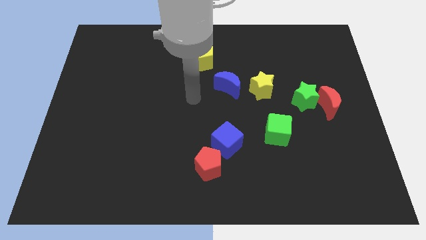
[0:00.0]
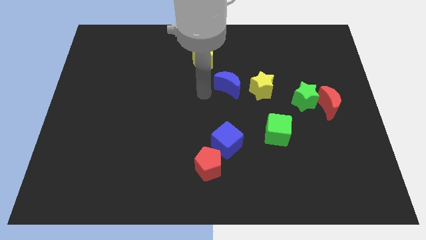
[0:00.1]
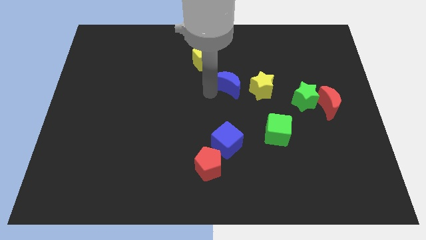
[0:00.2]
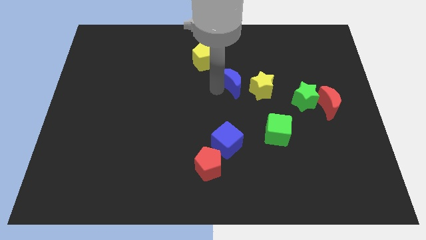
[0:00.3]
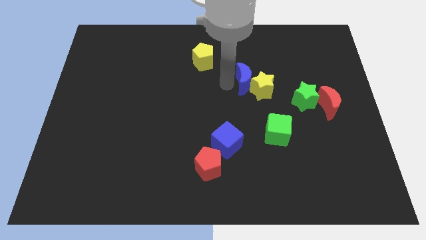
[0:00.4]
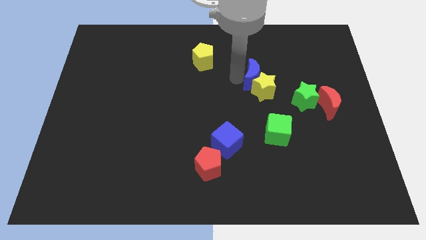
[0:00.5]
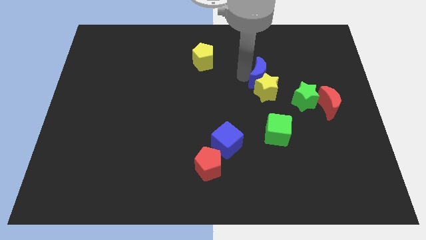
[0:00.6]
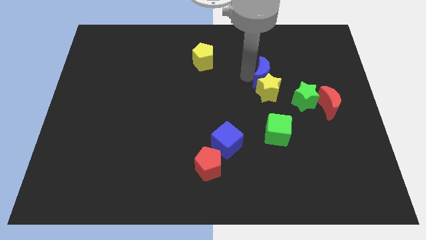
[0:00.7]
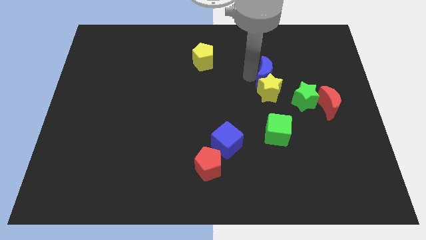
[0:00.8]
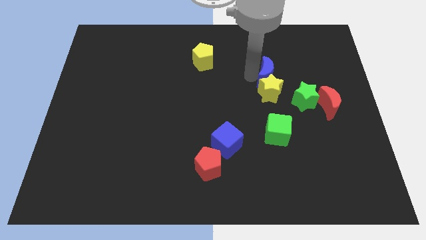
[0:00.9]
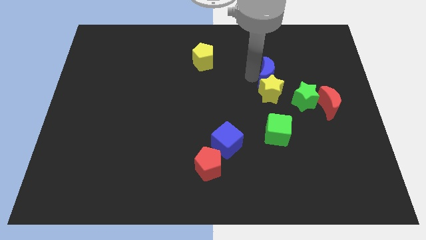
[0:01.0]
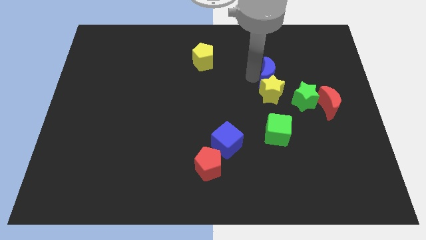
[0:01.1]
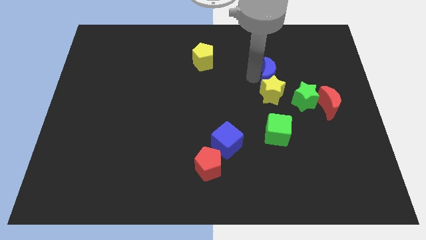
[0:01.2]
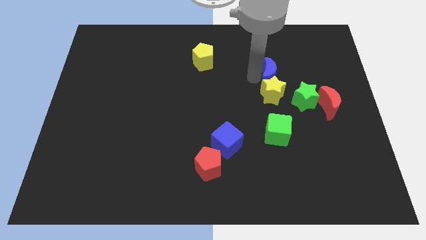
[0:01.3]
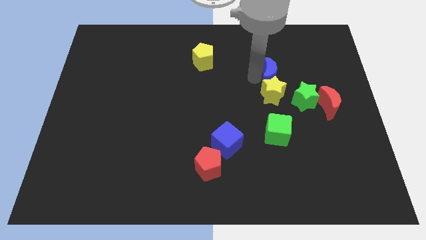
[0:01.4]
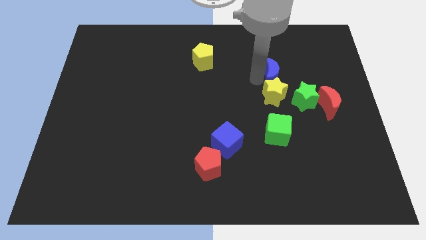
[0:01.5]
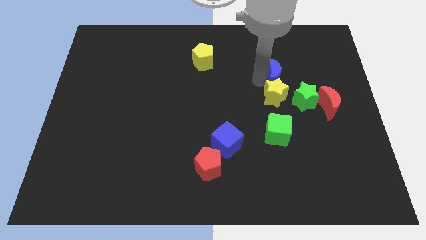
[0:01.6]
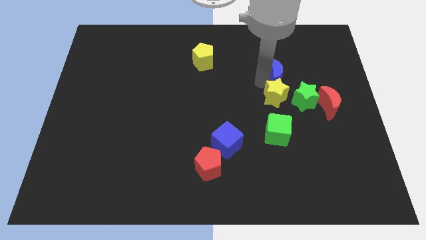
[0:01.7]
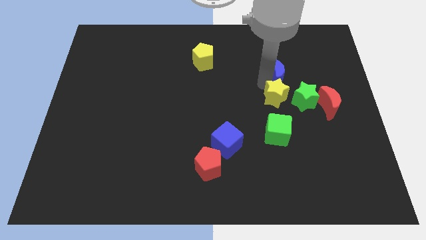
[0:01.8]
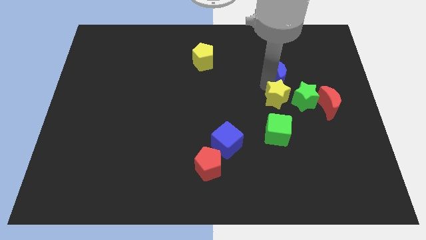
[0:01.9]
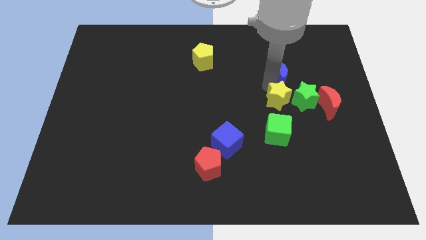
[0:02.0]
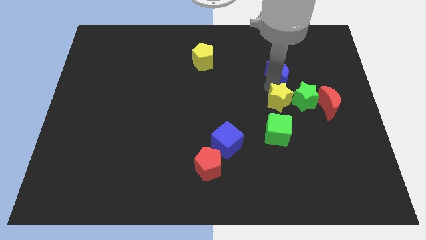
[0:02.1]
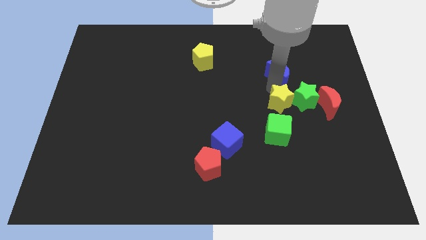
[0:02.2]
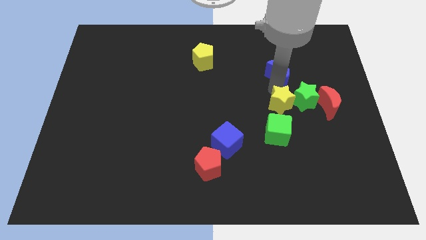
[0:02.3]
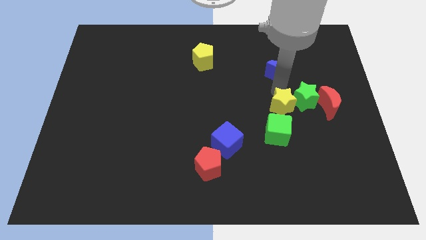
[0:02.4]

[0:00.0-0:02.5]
slightly move the yellow star downwards and then to the right

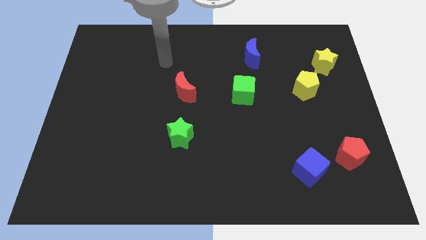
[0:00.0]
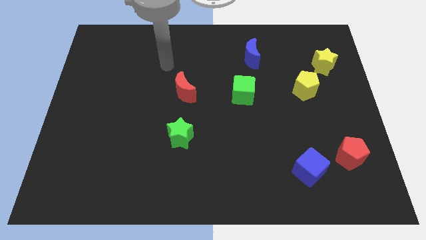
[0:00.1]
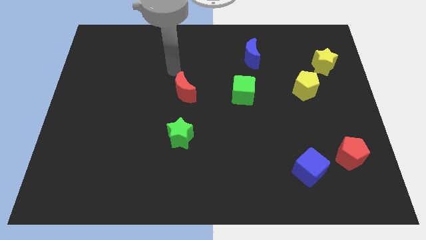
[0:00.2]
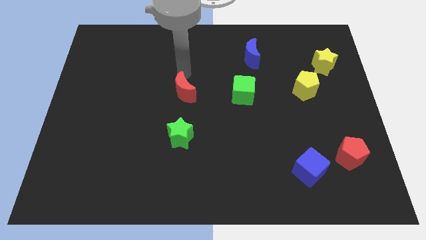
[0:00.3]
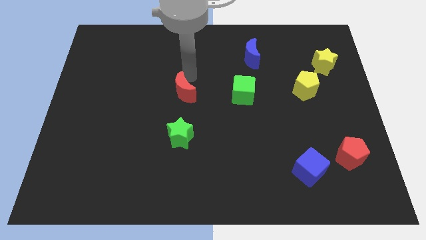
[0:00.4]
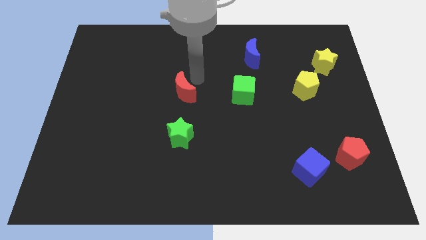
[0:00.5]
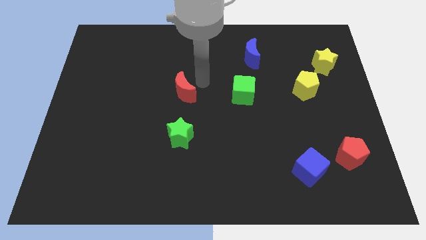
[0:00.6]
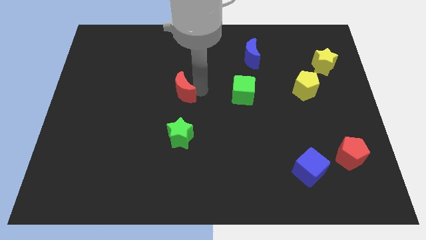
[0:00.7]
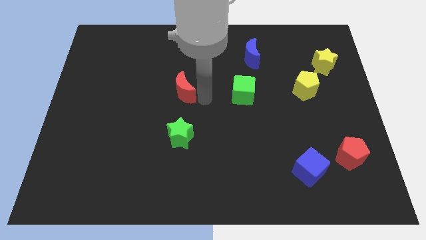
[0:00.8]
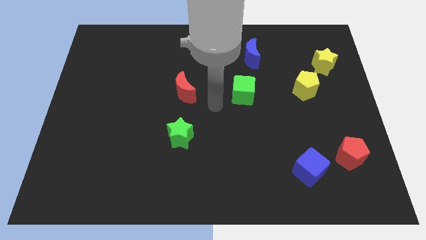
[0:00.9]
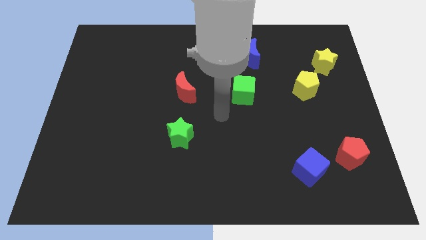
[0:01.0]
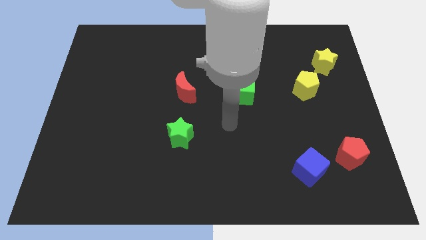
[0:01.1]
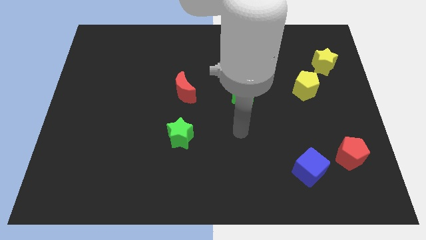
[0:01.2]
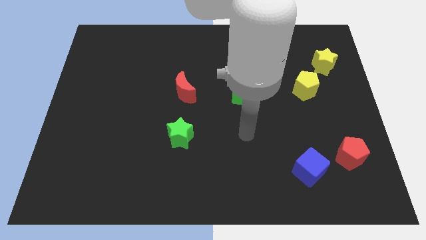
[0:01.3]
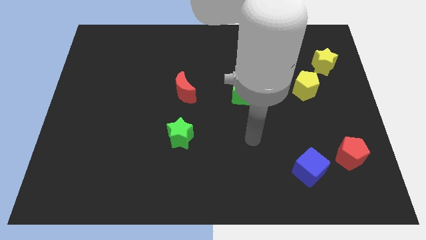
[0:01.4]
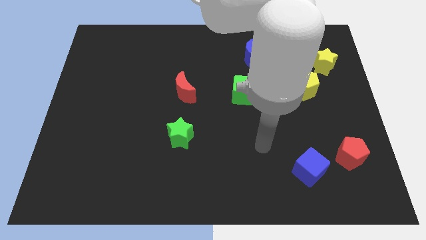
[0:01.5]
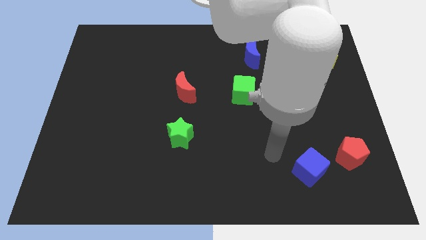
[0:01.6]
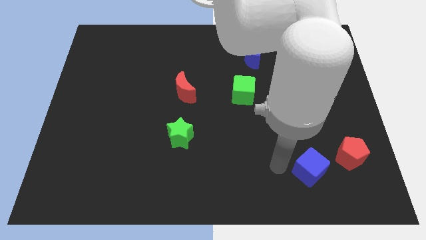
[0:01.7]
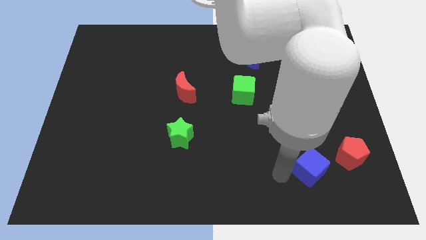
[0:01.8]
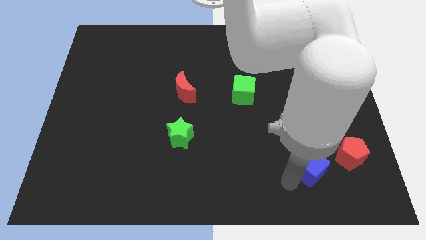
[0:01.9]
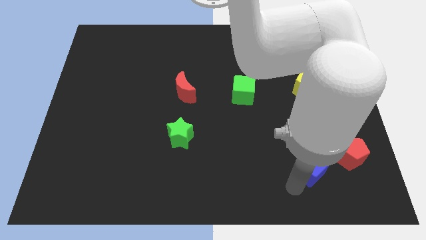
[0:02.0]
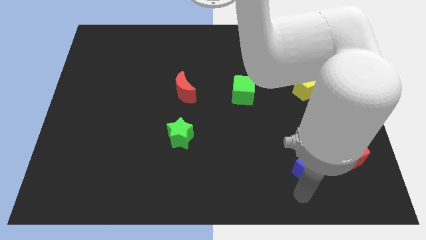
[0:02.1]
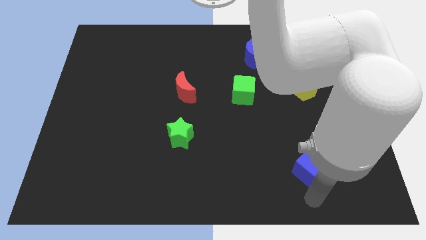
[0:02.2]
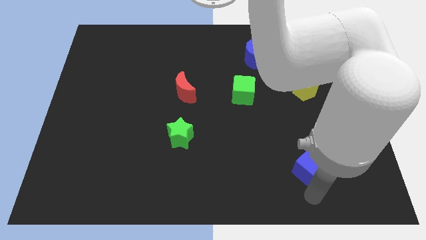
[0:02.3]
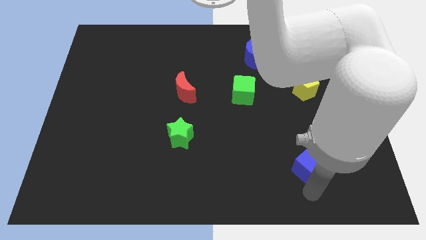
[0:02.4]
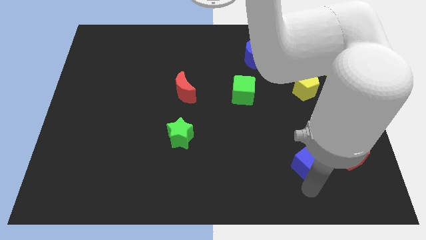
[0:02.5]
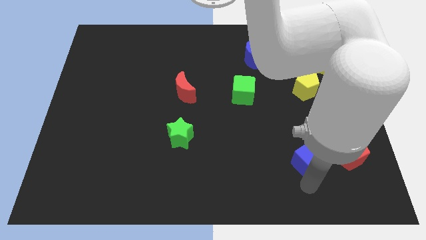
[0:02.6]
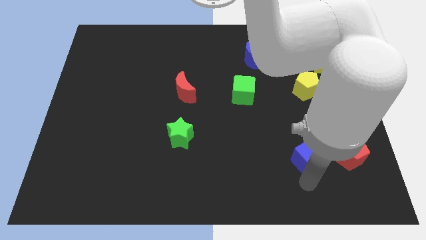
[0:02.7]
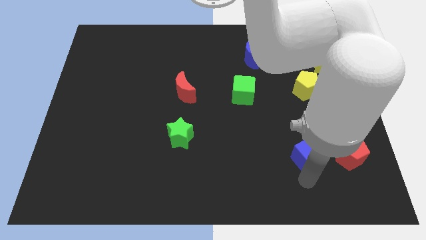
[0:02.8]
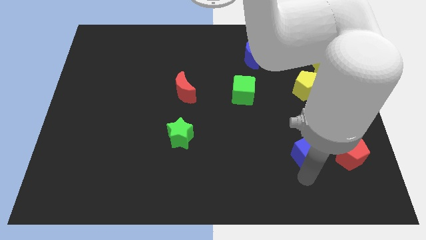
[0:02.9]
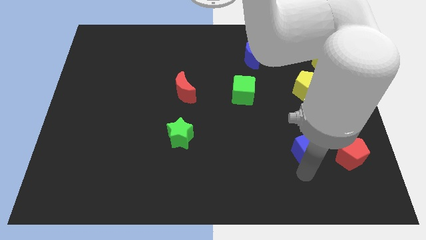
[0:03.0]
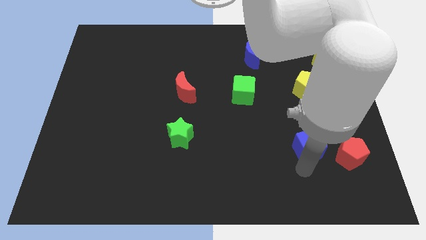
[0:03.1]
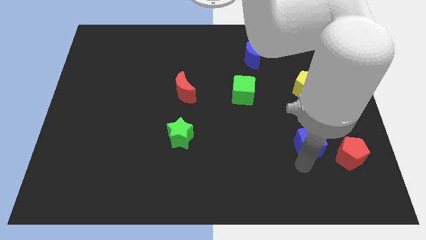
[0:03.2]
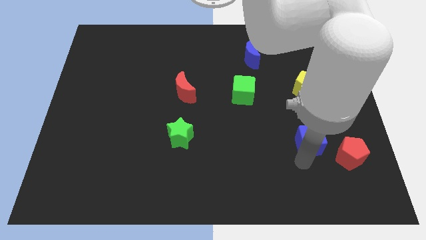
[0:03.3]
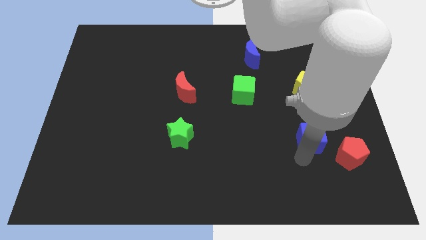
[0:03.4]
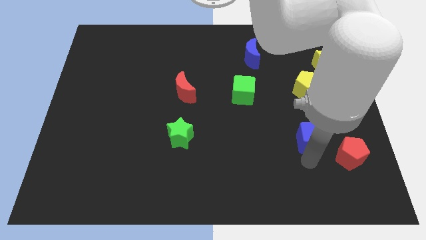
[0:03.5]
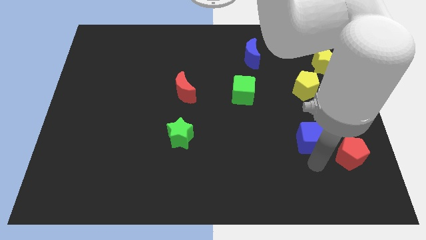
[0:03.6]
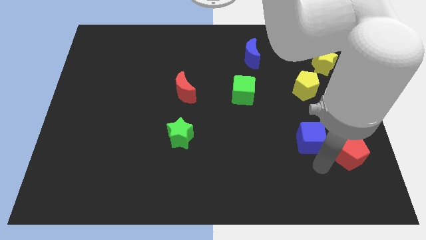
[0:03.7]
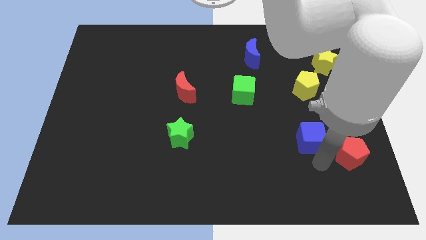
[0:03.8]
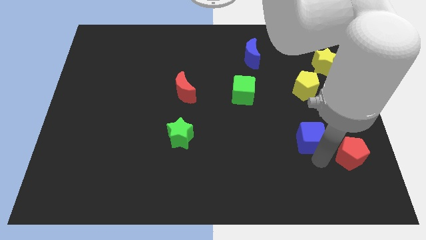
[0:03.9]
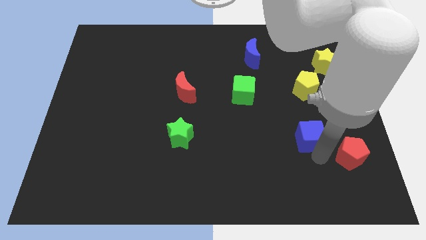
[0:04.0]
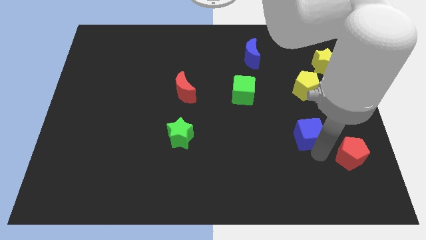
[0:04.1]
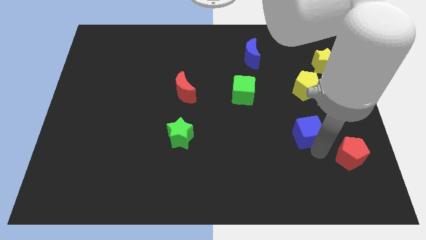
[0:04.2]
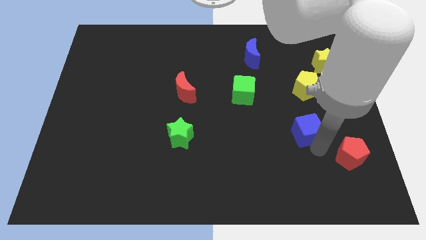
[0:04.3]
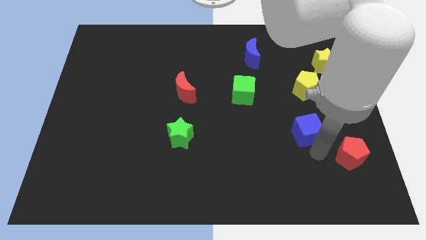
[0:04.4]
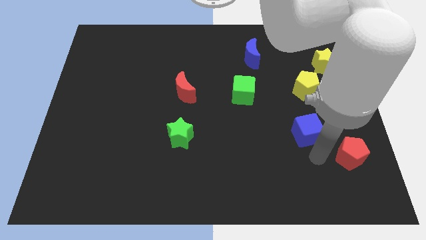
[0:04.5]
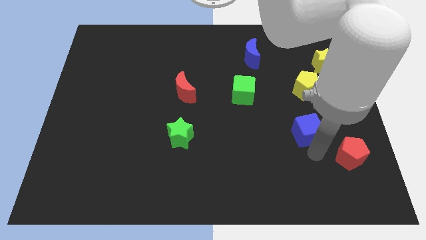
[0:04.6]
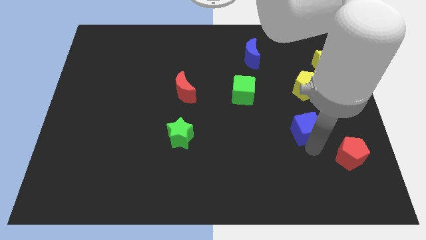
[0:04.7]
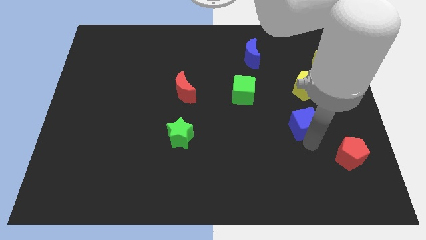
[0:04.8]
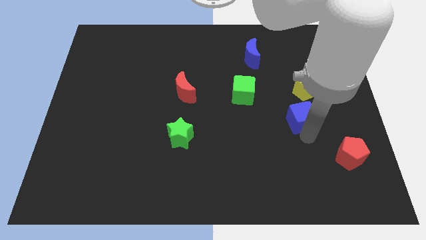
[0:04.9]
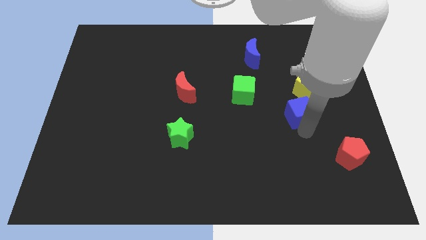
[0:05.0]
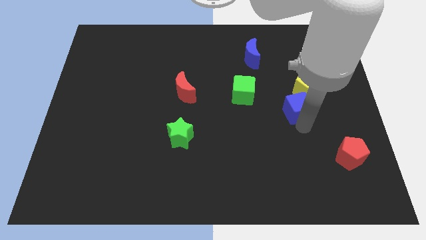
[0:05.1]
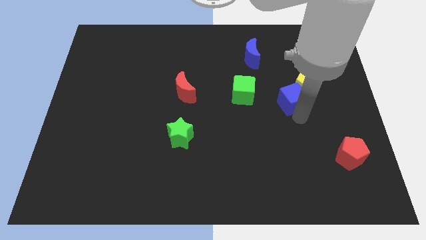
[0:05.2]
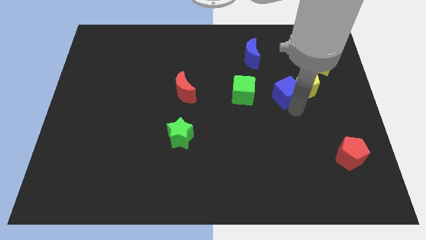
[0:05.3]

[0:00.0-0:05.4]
push the blue cube up

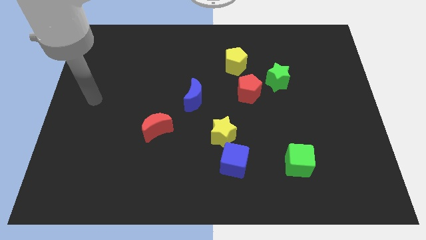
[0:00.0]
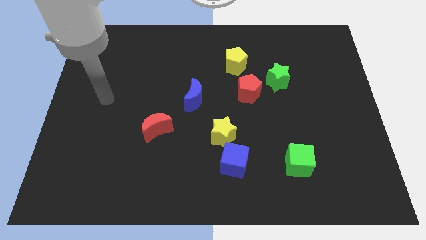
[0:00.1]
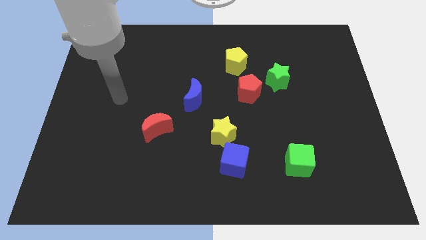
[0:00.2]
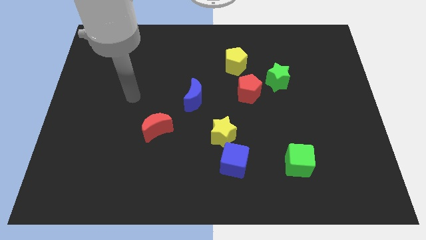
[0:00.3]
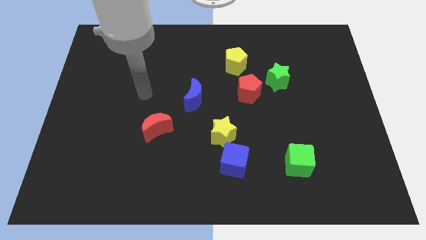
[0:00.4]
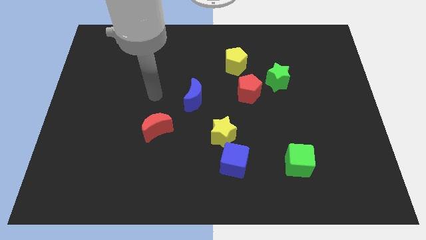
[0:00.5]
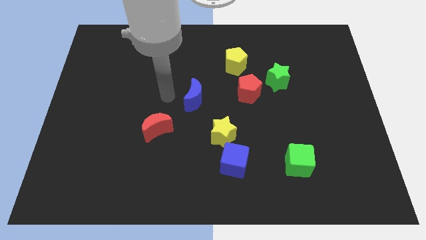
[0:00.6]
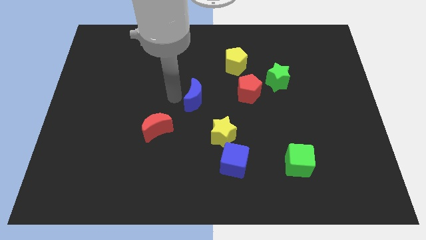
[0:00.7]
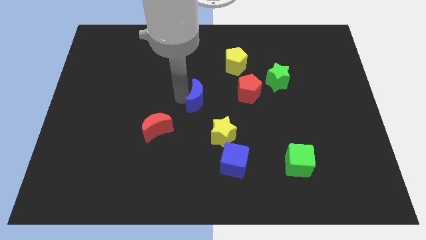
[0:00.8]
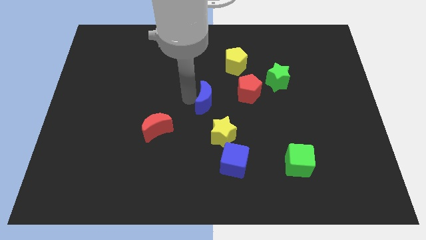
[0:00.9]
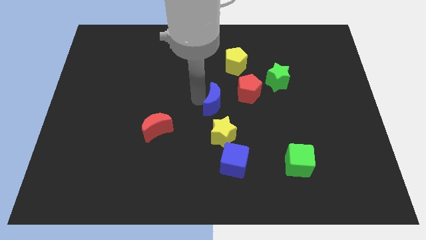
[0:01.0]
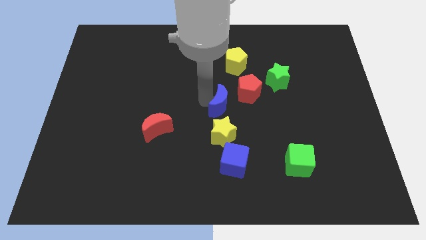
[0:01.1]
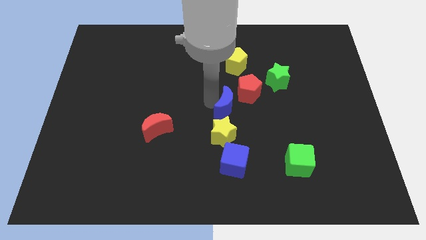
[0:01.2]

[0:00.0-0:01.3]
push the blue moon to the right a little
